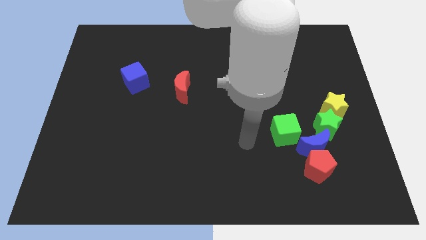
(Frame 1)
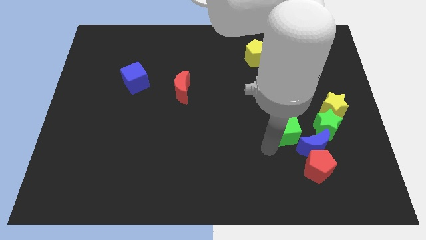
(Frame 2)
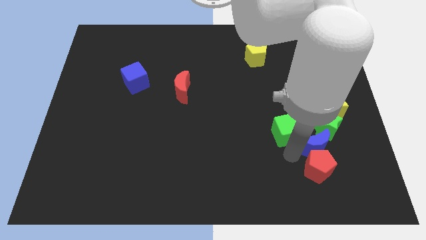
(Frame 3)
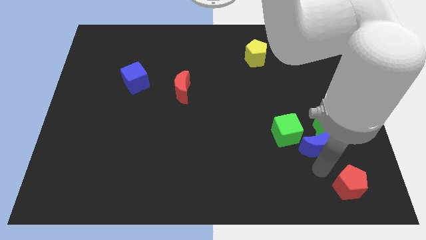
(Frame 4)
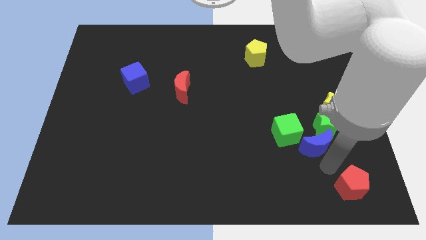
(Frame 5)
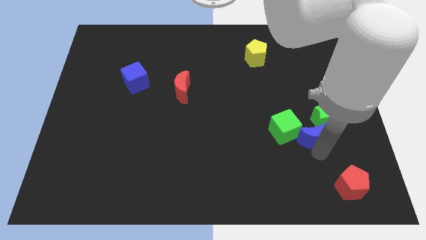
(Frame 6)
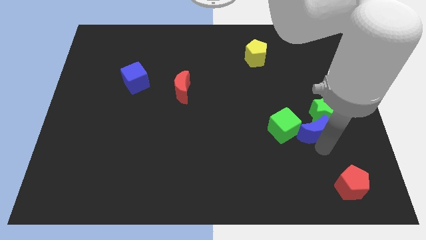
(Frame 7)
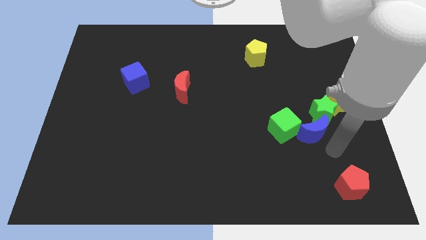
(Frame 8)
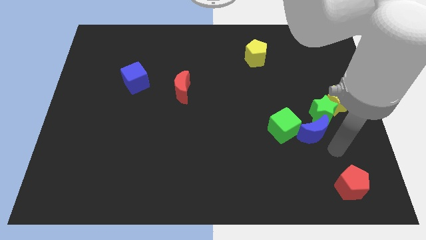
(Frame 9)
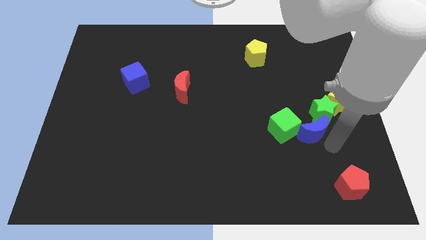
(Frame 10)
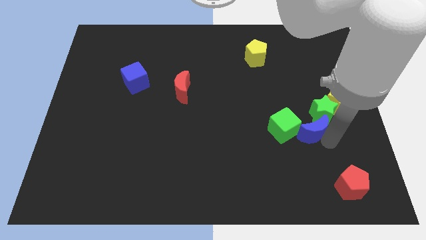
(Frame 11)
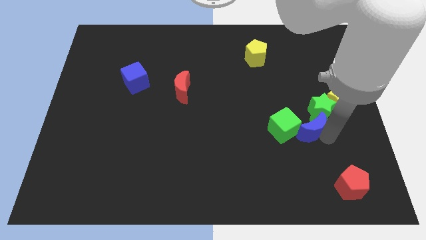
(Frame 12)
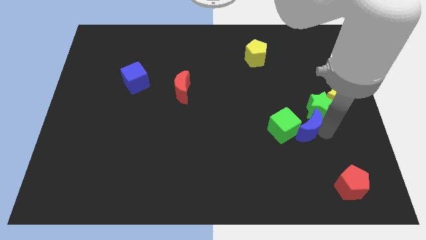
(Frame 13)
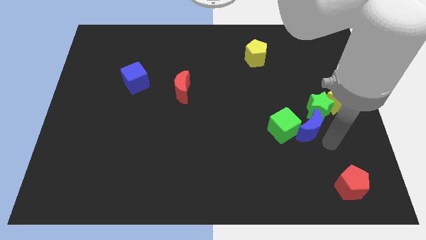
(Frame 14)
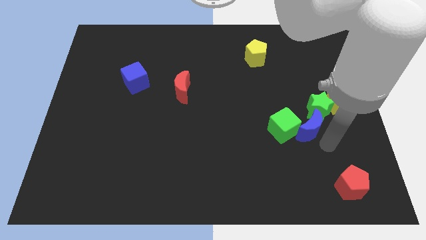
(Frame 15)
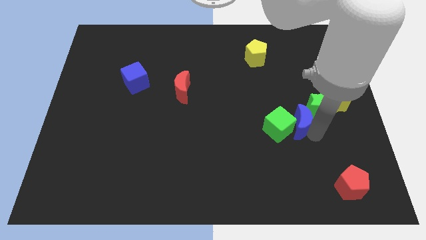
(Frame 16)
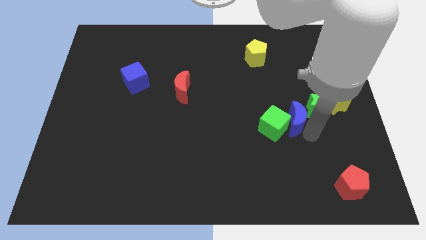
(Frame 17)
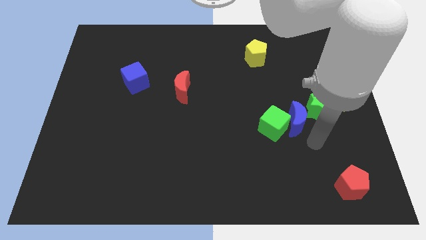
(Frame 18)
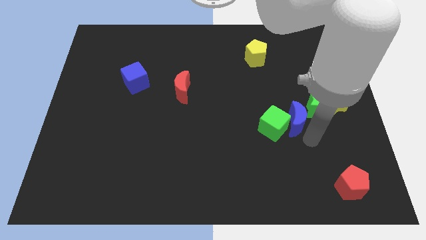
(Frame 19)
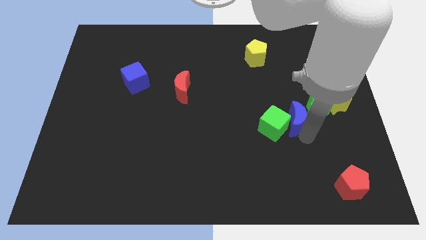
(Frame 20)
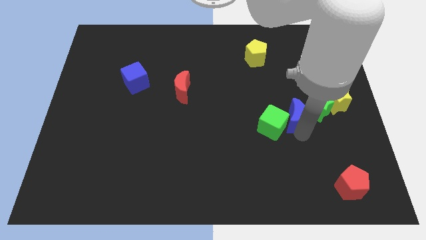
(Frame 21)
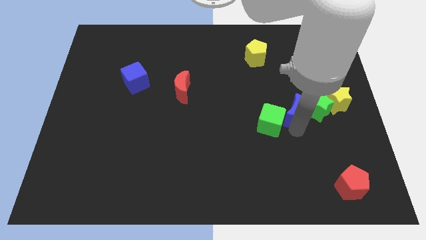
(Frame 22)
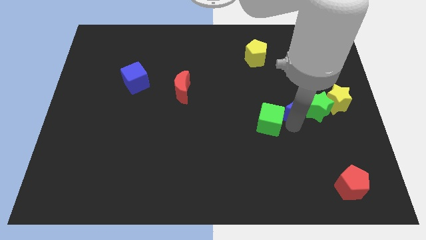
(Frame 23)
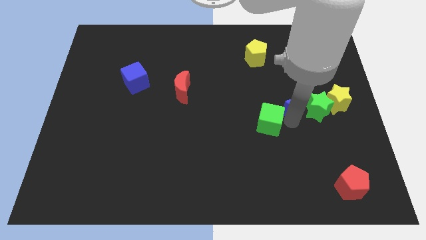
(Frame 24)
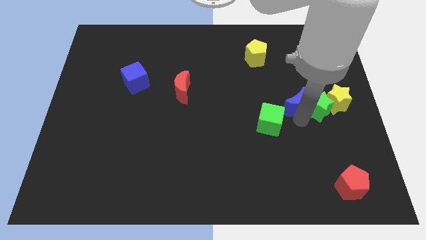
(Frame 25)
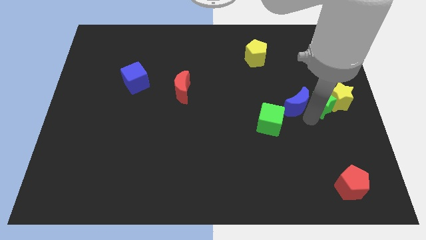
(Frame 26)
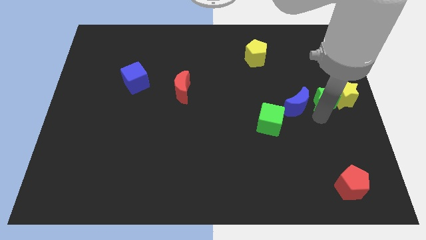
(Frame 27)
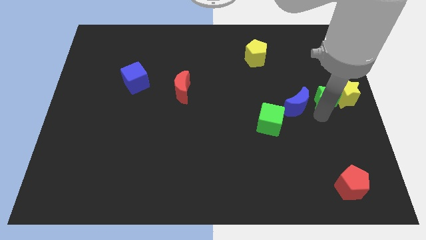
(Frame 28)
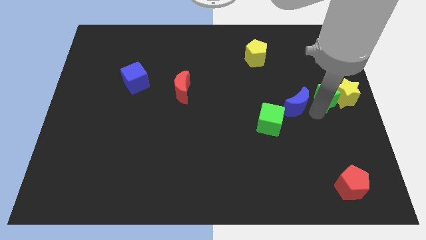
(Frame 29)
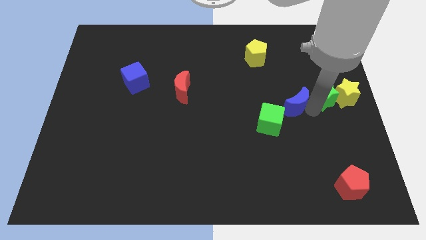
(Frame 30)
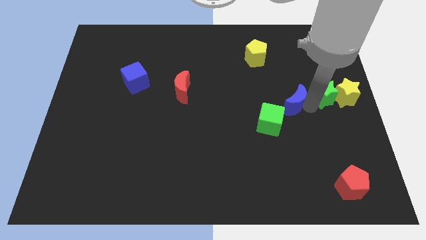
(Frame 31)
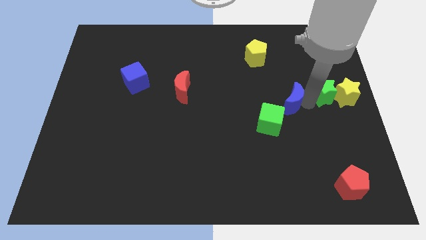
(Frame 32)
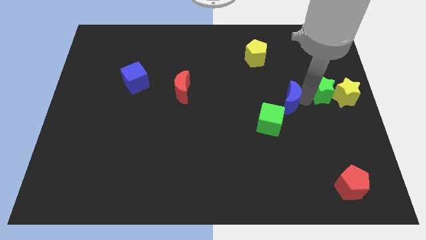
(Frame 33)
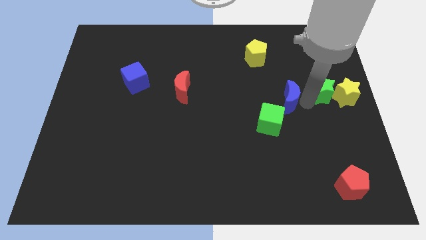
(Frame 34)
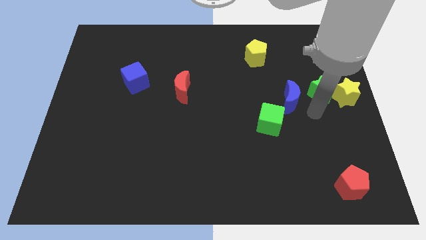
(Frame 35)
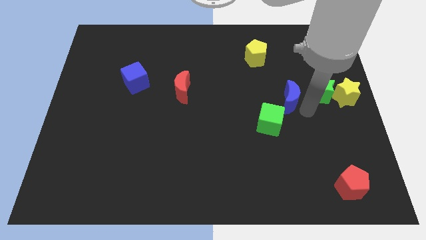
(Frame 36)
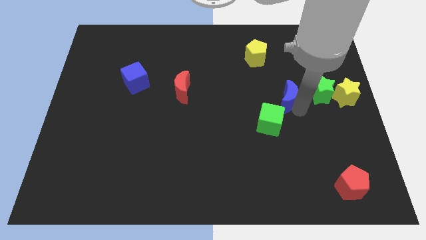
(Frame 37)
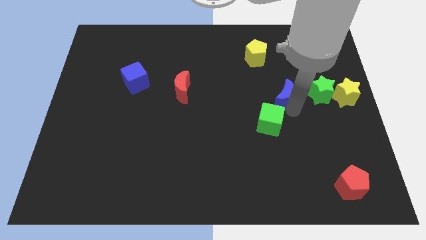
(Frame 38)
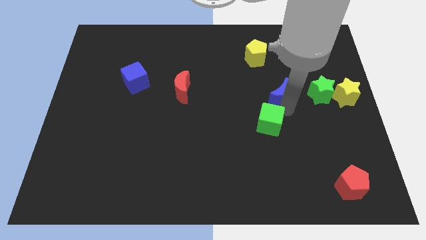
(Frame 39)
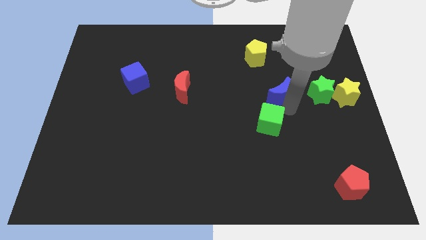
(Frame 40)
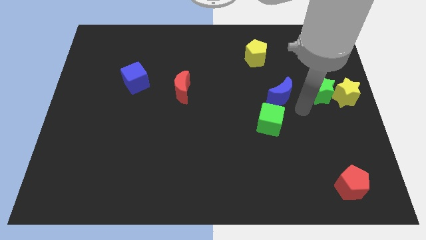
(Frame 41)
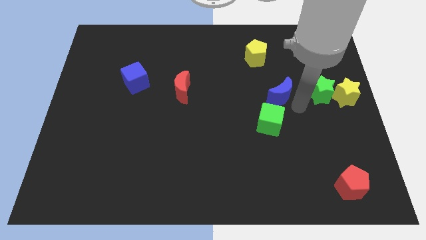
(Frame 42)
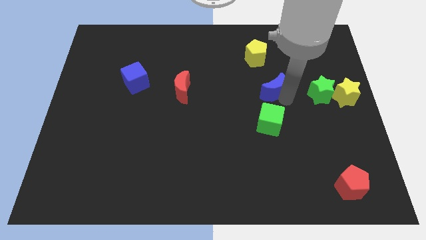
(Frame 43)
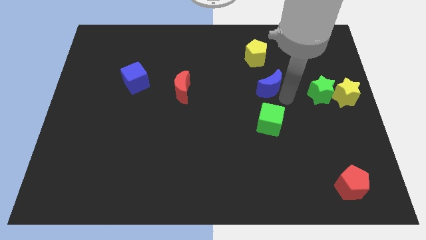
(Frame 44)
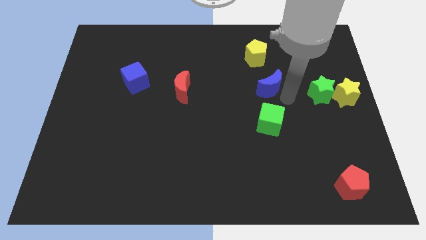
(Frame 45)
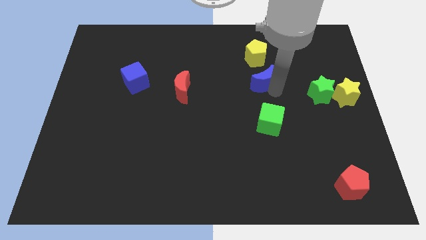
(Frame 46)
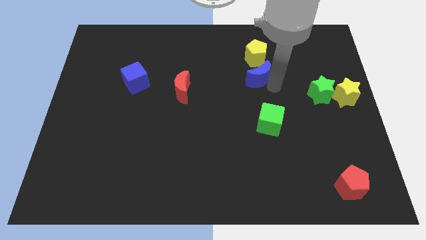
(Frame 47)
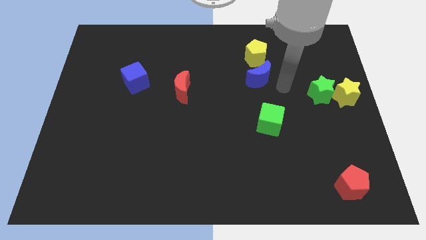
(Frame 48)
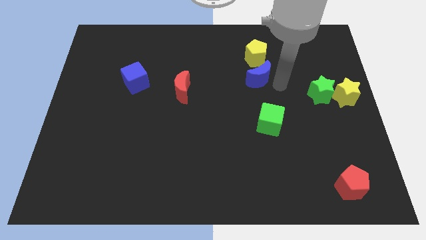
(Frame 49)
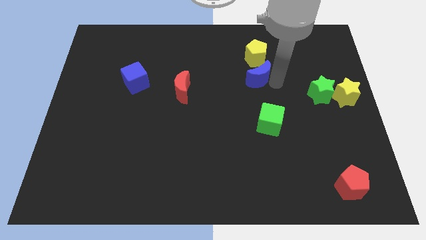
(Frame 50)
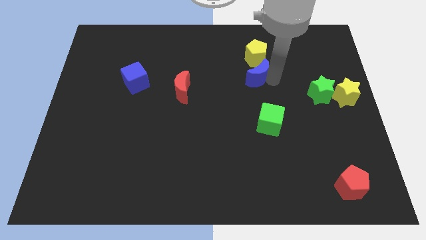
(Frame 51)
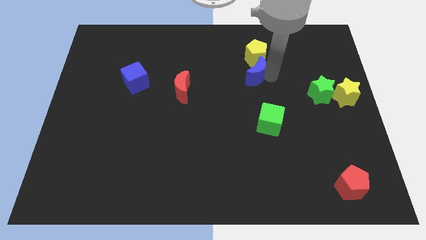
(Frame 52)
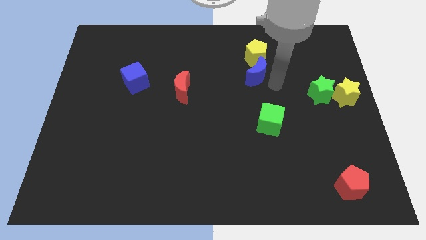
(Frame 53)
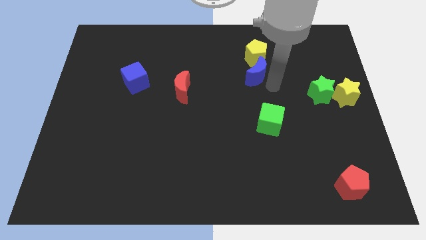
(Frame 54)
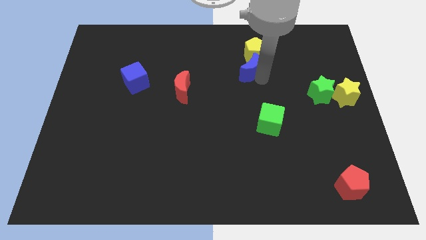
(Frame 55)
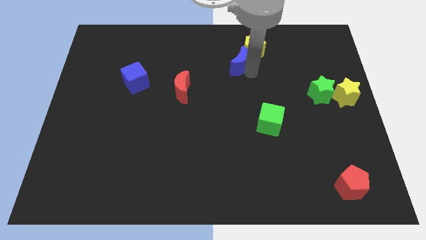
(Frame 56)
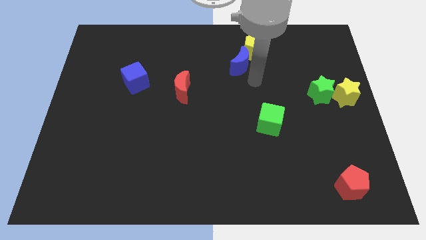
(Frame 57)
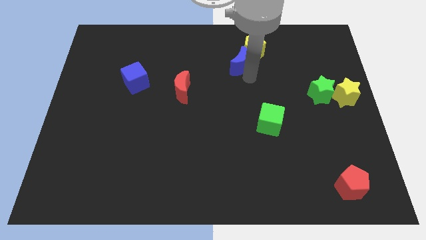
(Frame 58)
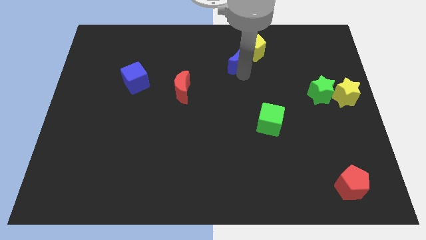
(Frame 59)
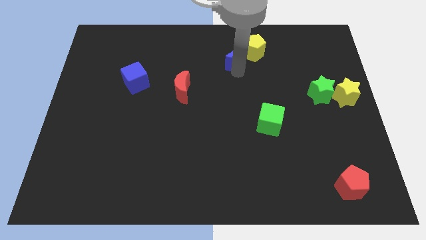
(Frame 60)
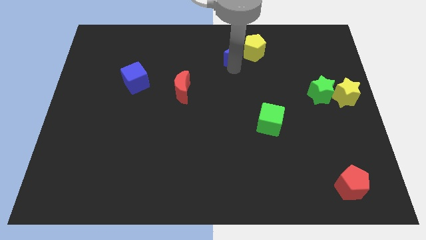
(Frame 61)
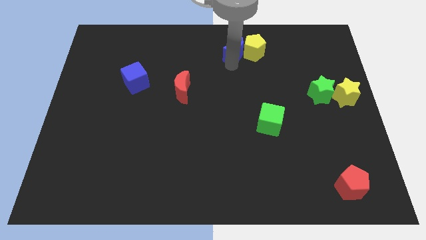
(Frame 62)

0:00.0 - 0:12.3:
move the blue moon to the towards your base
